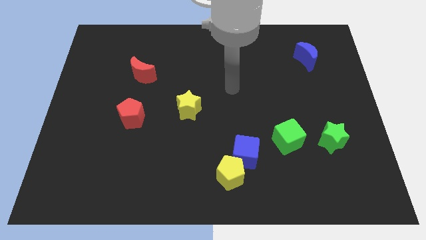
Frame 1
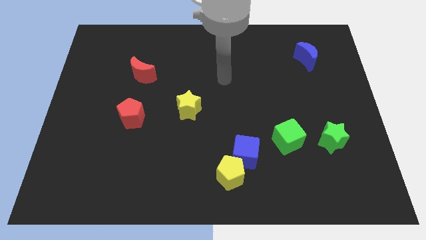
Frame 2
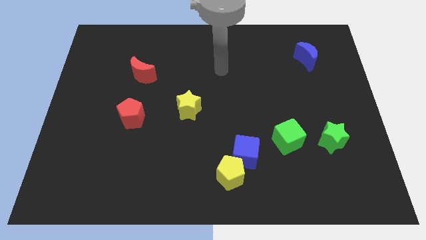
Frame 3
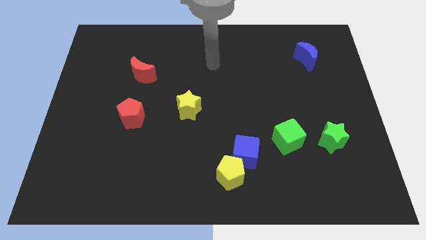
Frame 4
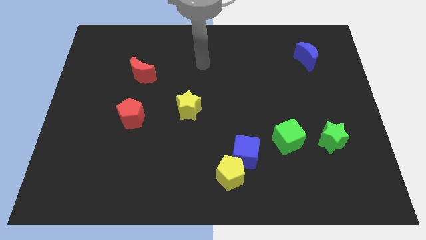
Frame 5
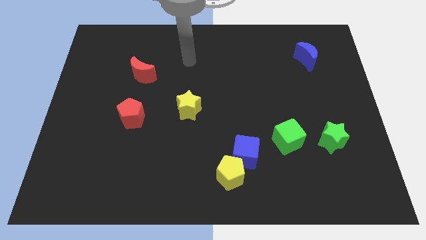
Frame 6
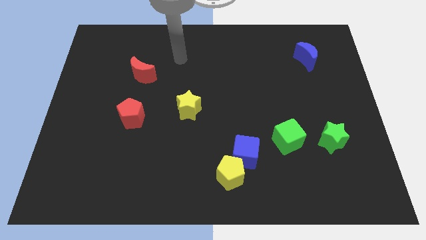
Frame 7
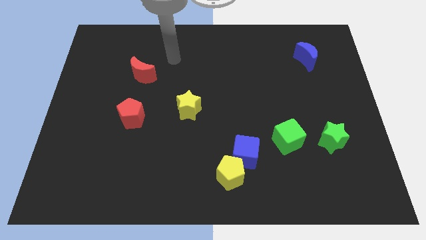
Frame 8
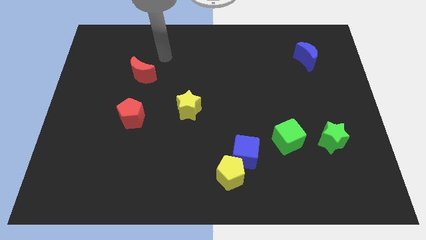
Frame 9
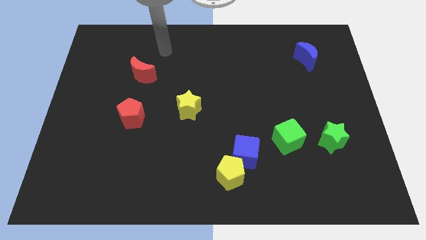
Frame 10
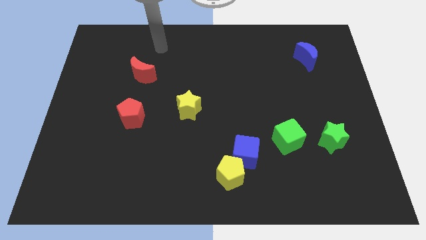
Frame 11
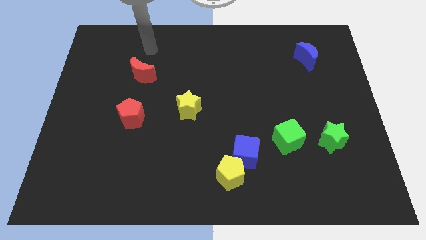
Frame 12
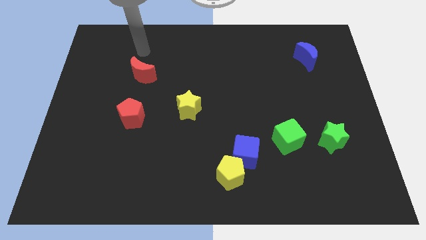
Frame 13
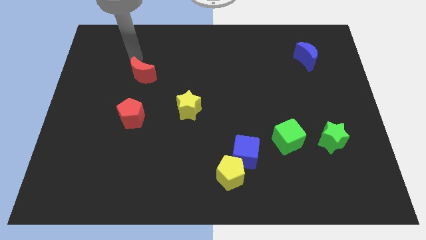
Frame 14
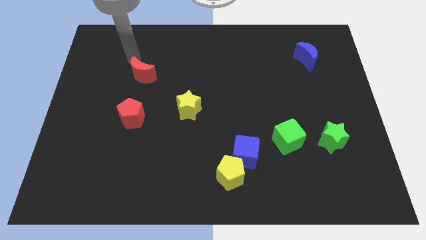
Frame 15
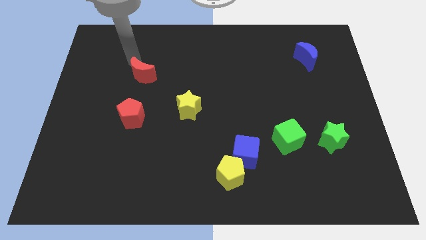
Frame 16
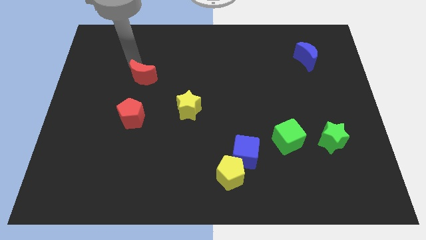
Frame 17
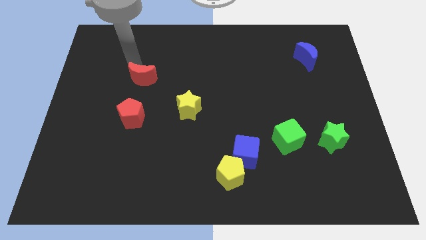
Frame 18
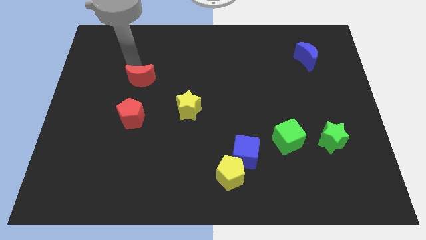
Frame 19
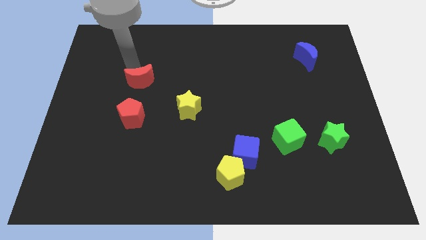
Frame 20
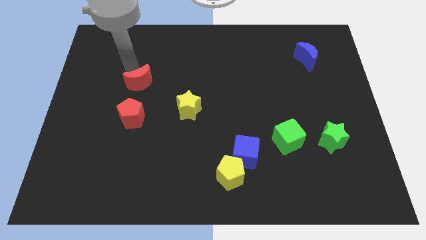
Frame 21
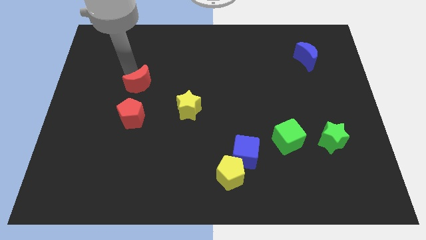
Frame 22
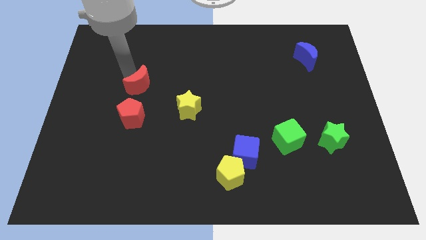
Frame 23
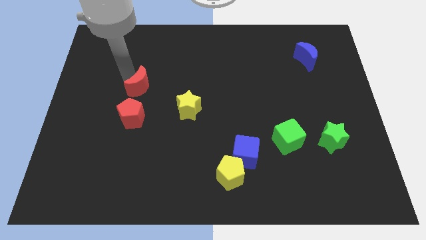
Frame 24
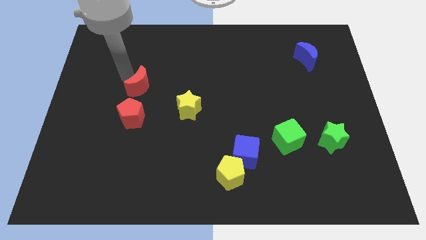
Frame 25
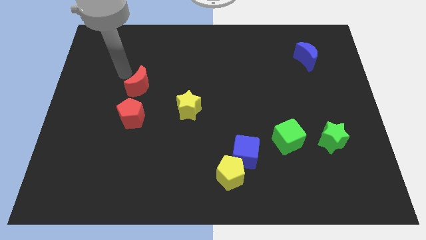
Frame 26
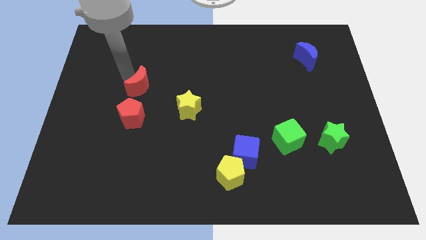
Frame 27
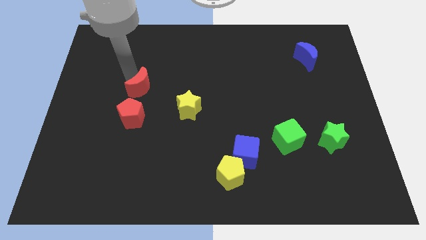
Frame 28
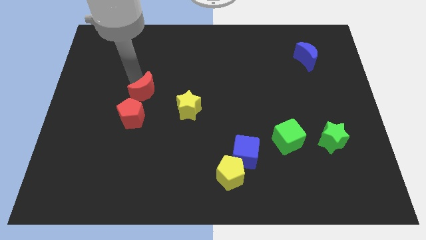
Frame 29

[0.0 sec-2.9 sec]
put the red moon diagonally up and to the right of the red pentagon

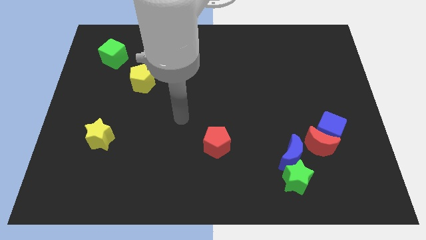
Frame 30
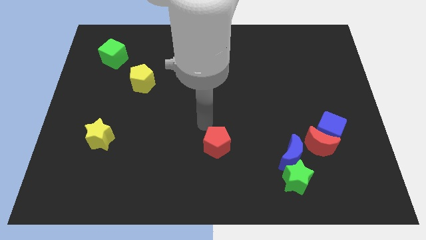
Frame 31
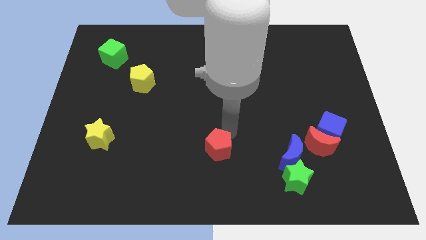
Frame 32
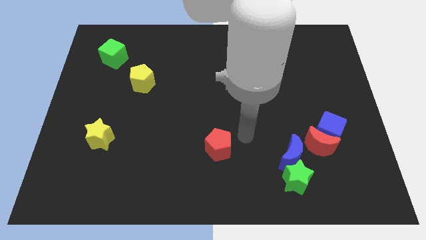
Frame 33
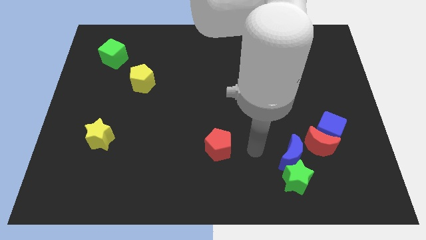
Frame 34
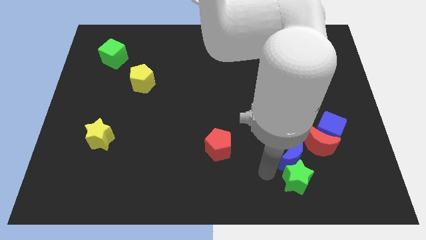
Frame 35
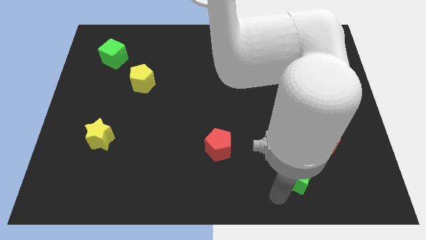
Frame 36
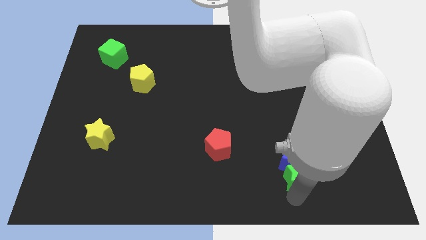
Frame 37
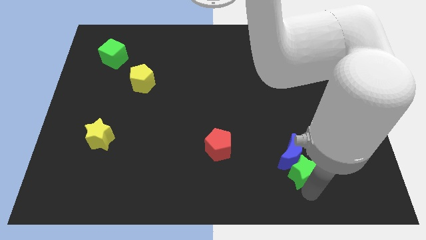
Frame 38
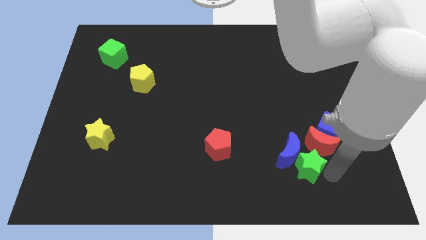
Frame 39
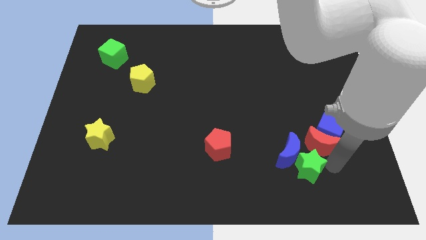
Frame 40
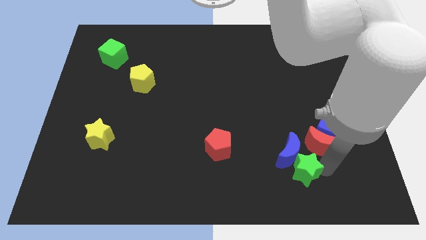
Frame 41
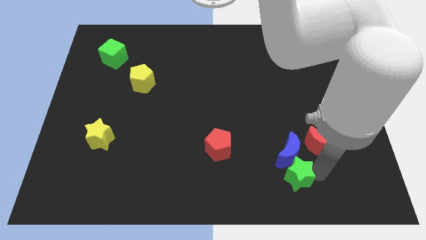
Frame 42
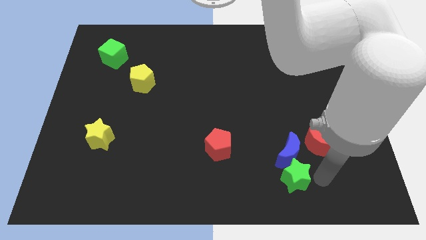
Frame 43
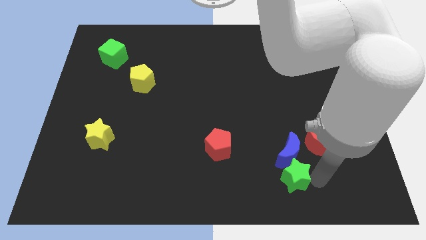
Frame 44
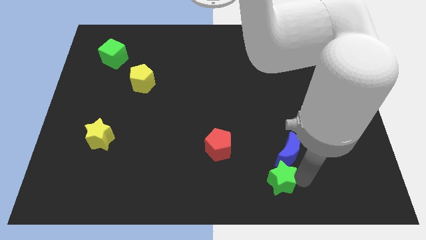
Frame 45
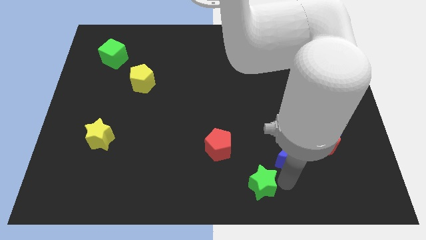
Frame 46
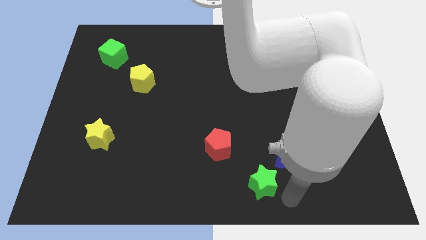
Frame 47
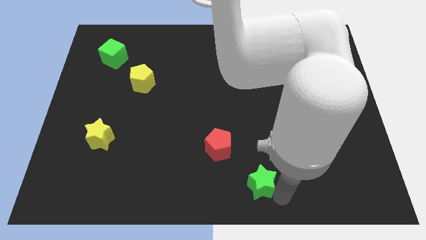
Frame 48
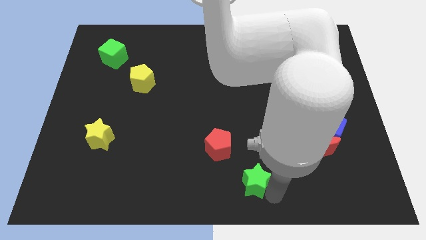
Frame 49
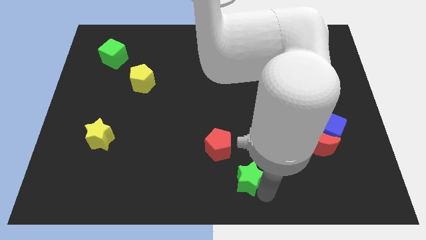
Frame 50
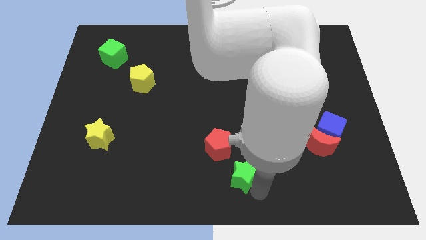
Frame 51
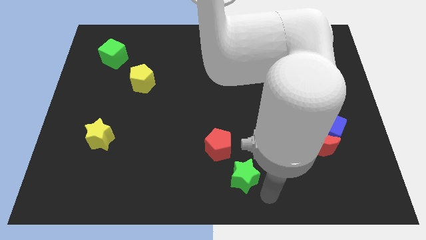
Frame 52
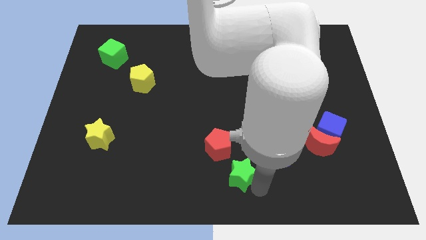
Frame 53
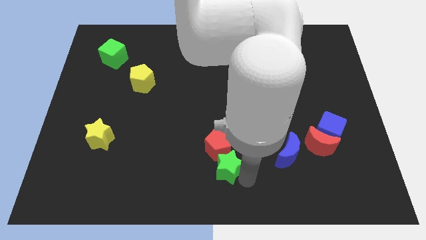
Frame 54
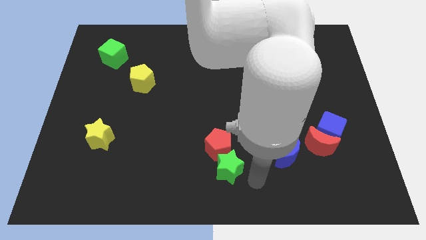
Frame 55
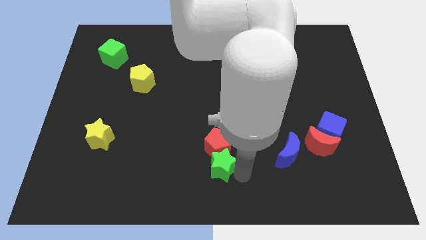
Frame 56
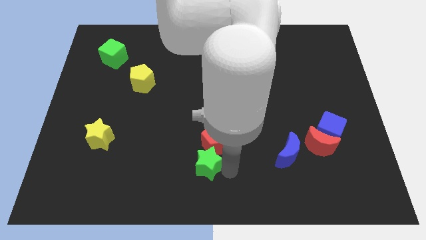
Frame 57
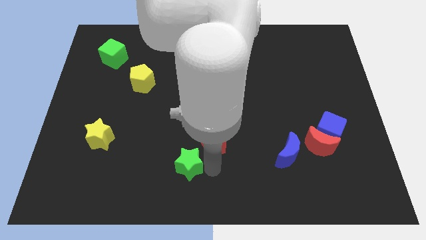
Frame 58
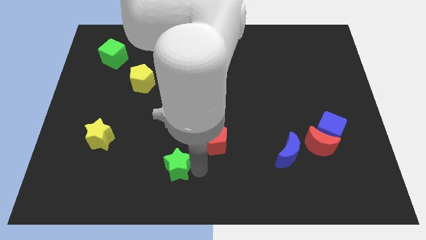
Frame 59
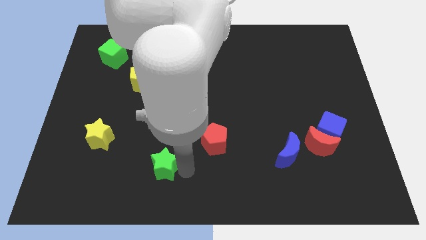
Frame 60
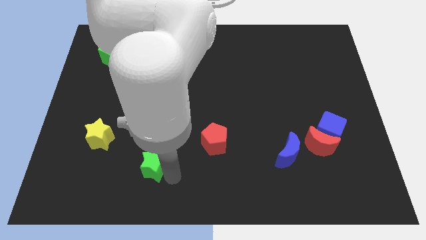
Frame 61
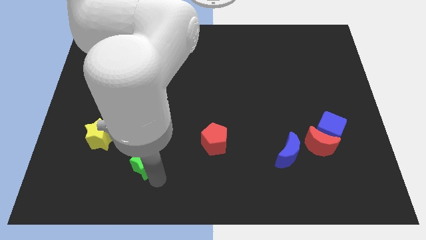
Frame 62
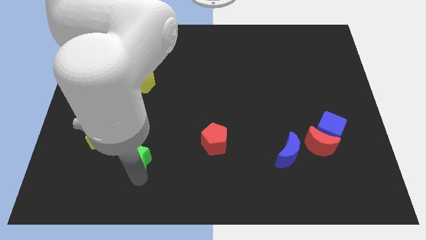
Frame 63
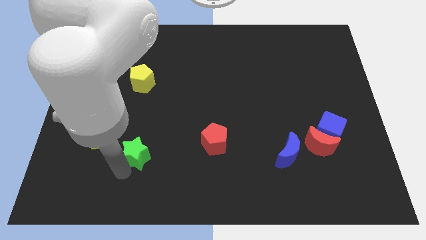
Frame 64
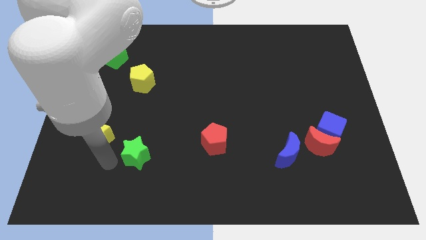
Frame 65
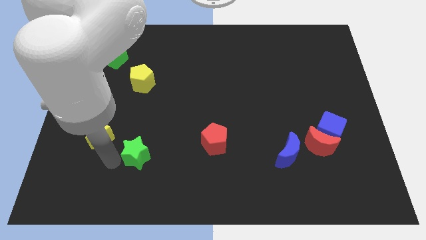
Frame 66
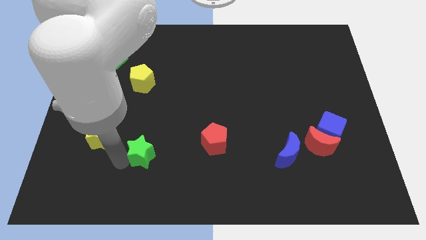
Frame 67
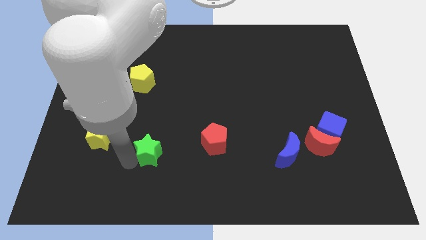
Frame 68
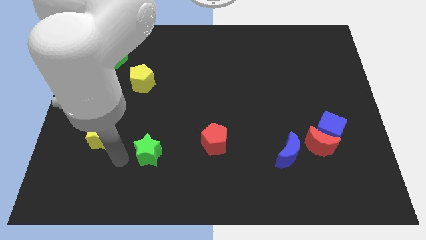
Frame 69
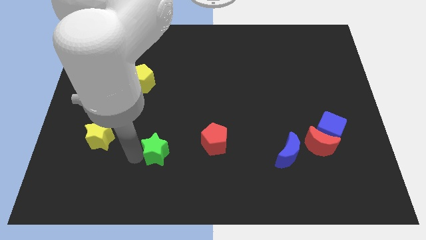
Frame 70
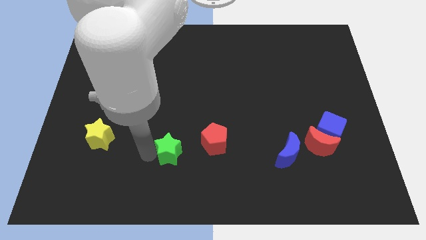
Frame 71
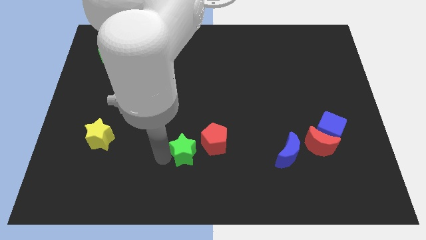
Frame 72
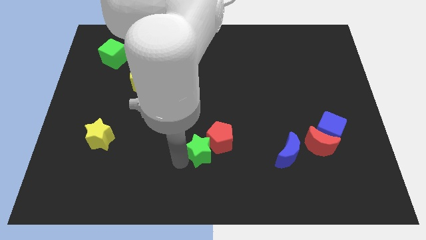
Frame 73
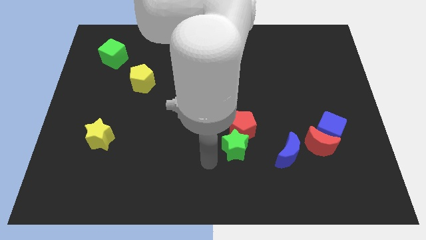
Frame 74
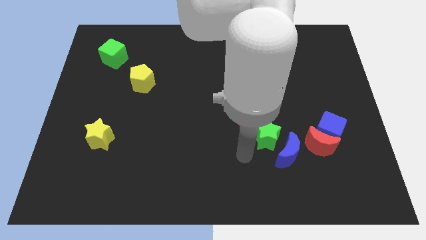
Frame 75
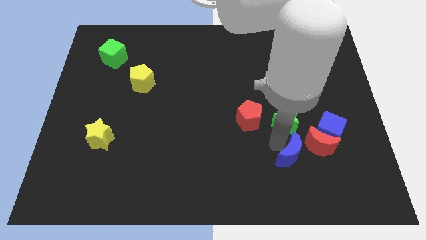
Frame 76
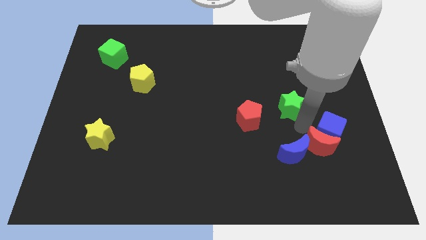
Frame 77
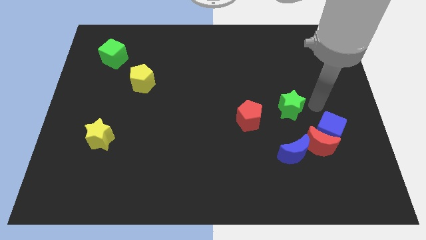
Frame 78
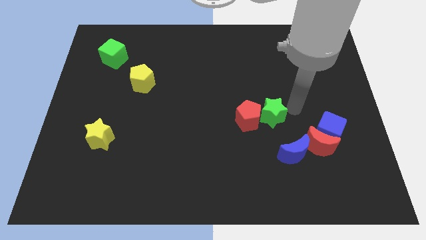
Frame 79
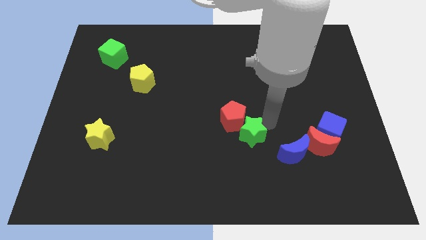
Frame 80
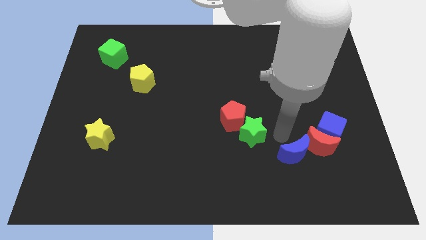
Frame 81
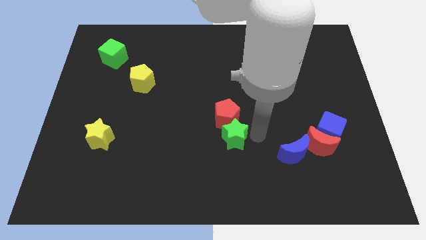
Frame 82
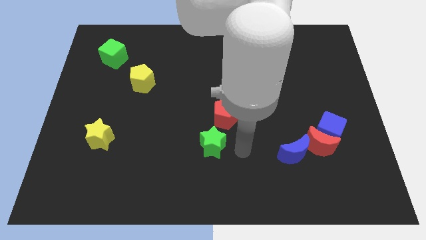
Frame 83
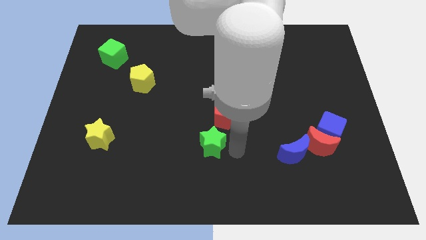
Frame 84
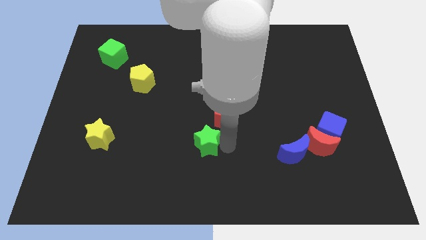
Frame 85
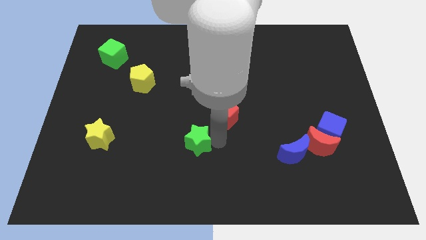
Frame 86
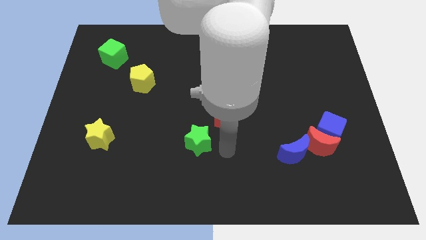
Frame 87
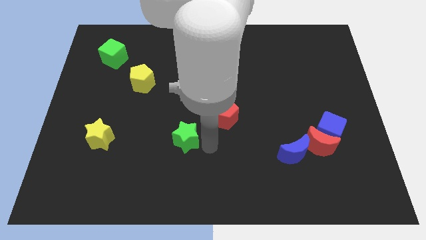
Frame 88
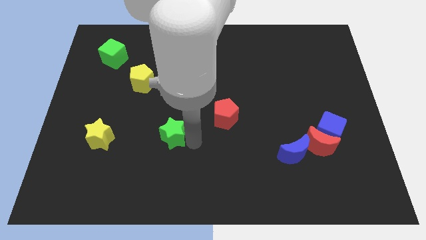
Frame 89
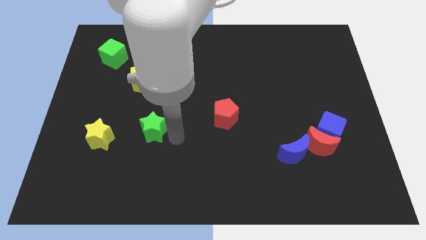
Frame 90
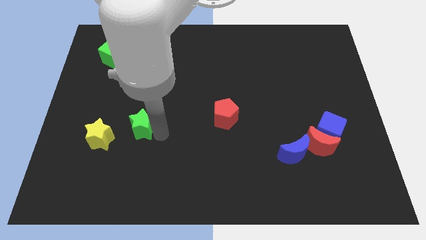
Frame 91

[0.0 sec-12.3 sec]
push the green star diagonally up and to the right of the yellow star
